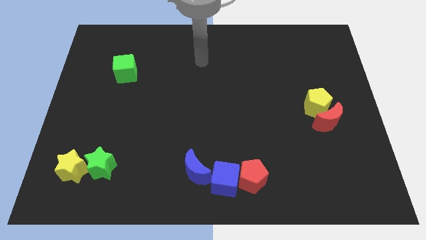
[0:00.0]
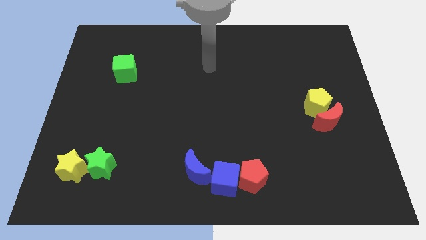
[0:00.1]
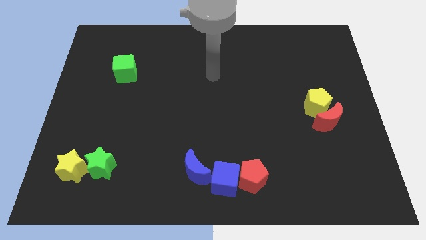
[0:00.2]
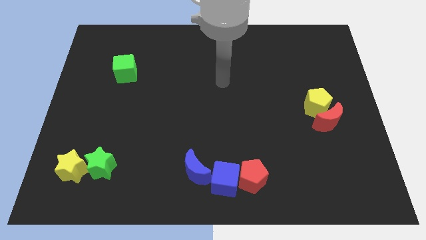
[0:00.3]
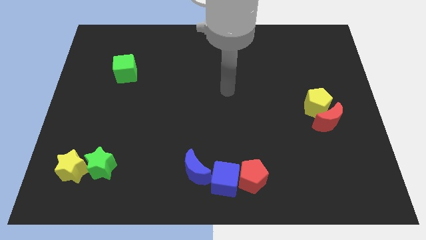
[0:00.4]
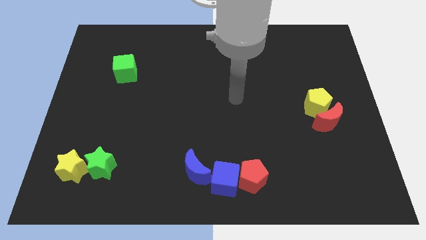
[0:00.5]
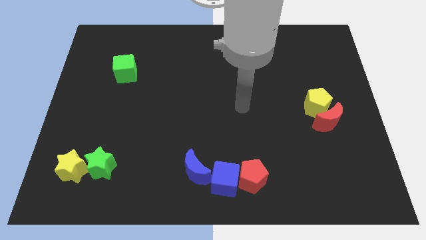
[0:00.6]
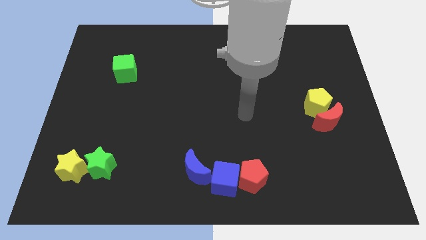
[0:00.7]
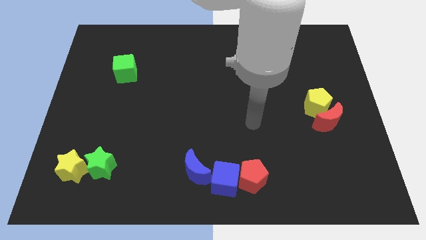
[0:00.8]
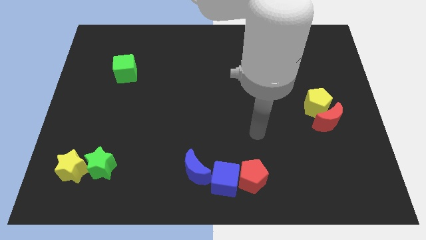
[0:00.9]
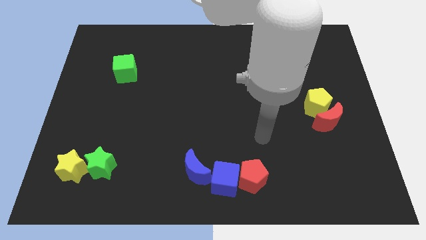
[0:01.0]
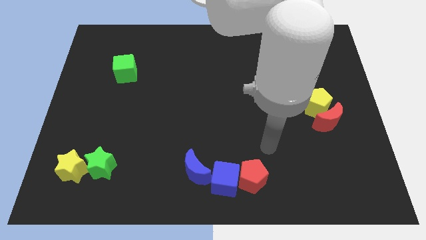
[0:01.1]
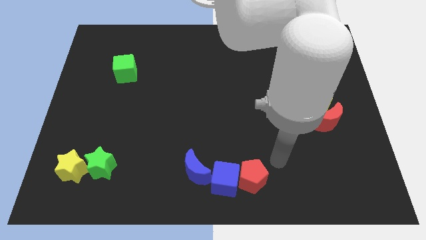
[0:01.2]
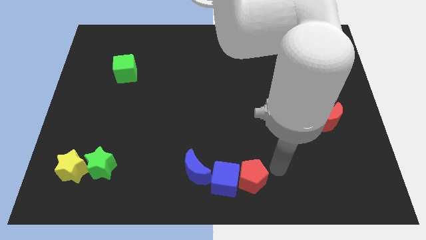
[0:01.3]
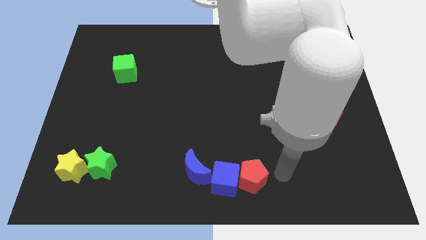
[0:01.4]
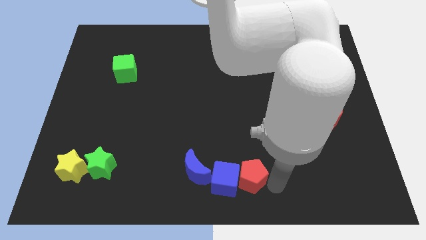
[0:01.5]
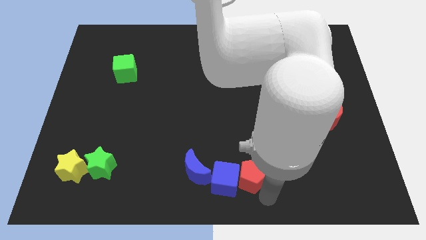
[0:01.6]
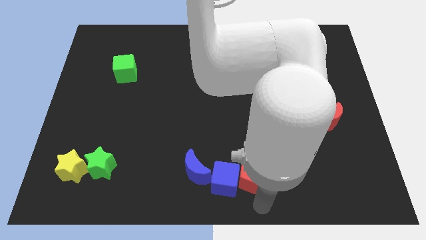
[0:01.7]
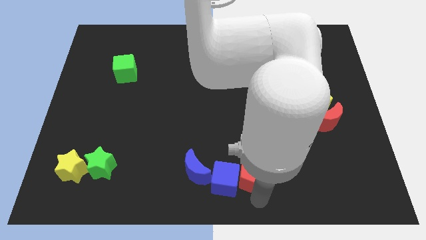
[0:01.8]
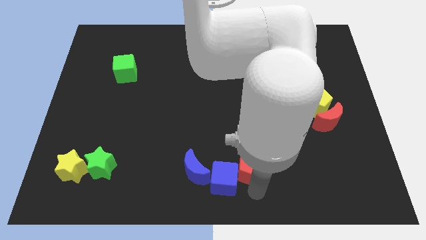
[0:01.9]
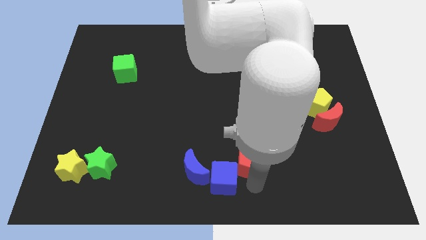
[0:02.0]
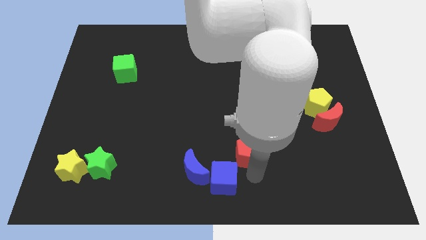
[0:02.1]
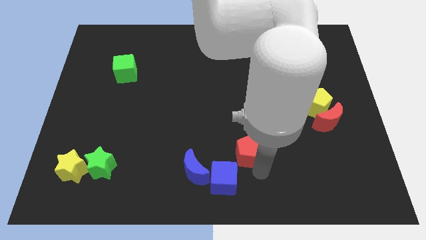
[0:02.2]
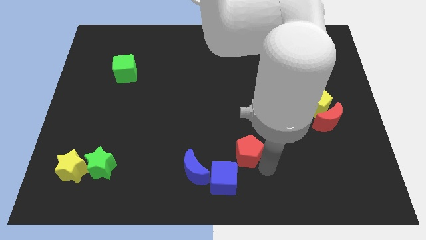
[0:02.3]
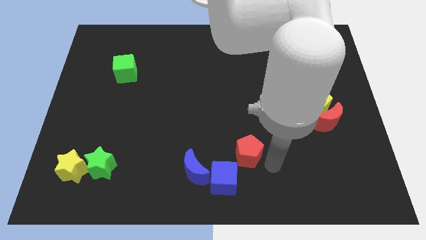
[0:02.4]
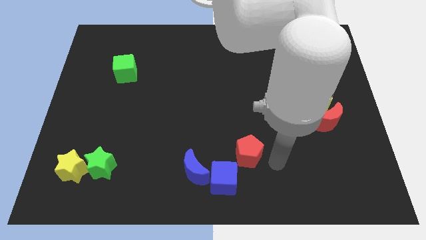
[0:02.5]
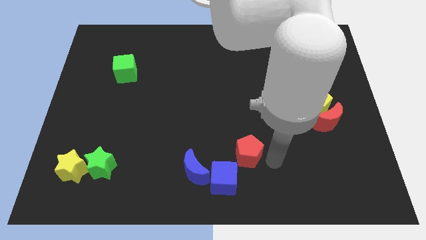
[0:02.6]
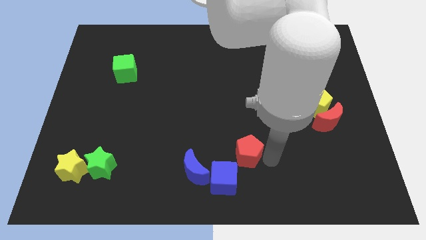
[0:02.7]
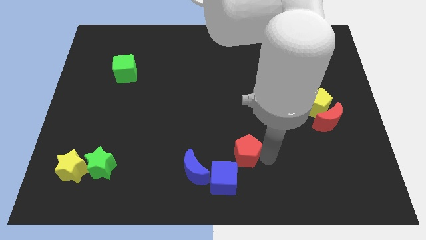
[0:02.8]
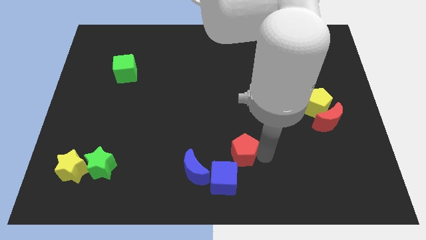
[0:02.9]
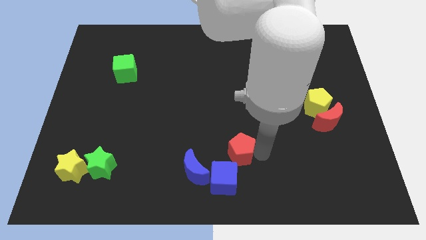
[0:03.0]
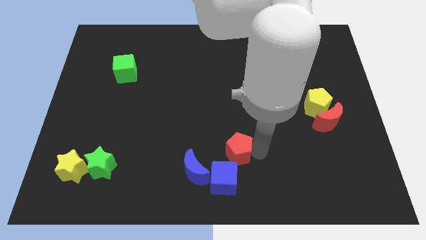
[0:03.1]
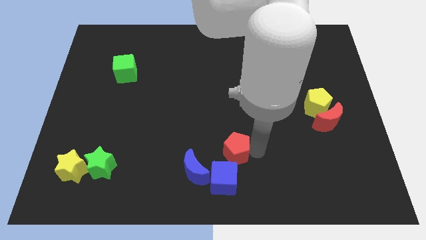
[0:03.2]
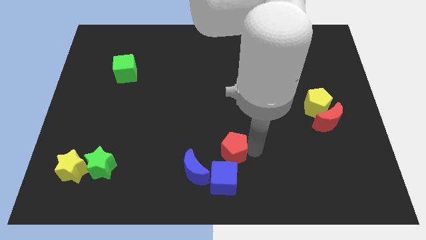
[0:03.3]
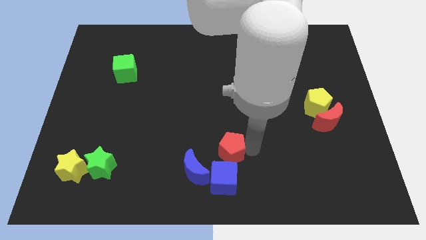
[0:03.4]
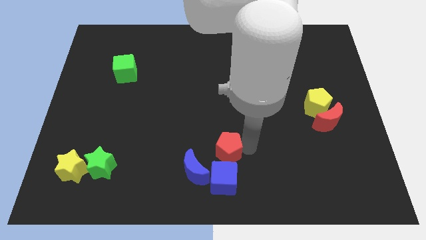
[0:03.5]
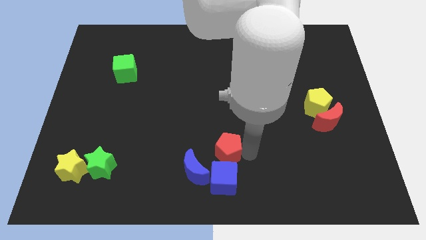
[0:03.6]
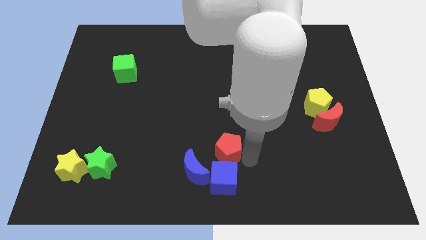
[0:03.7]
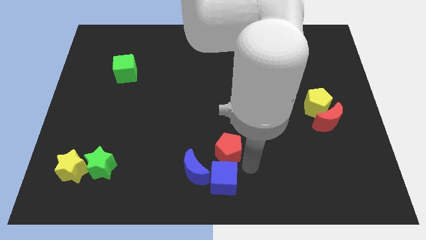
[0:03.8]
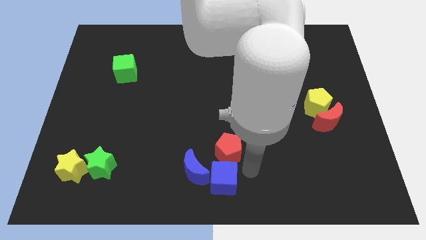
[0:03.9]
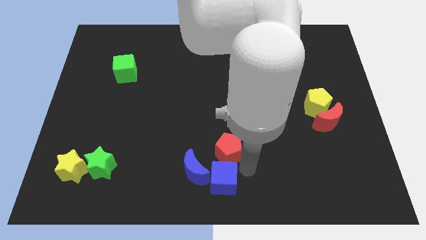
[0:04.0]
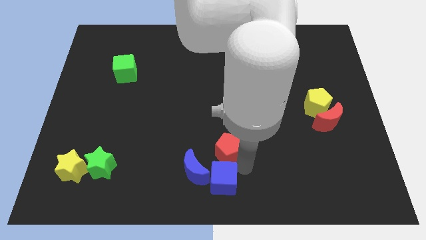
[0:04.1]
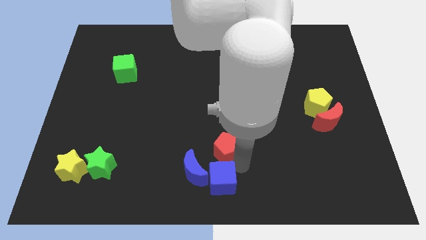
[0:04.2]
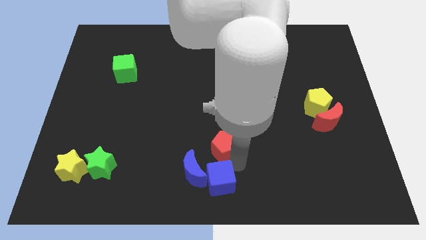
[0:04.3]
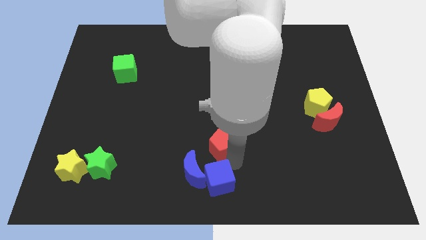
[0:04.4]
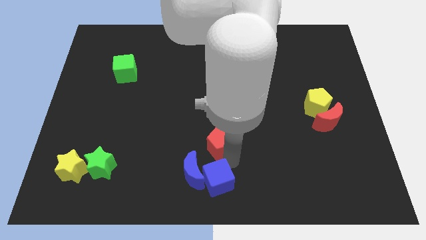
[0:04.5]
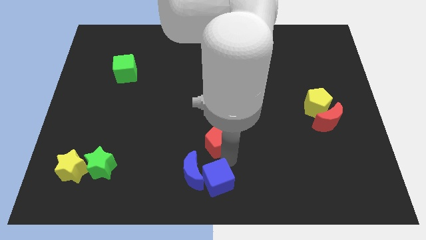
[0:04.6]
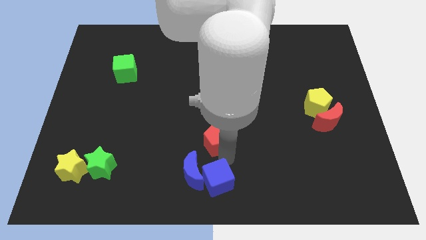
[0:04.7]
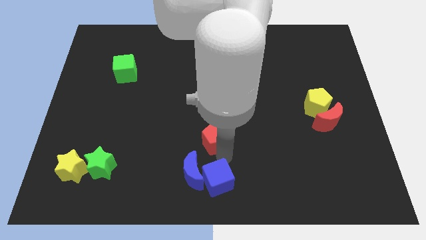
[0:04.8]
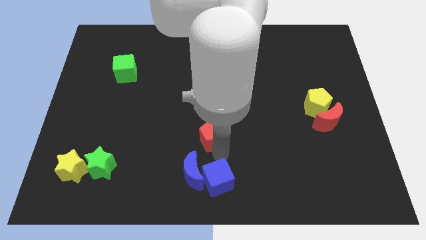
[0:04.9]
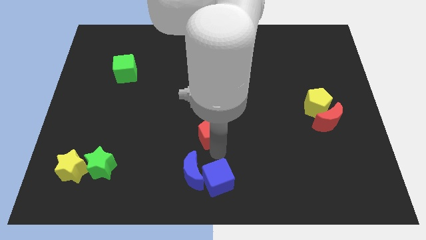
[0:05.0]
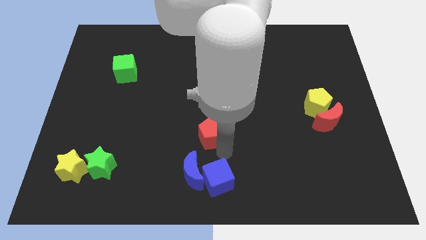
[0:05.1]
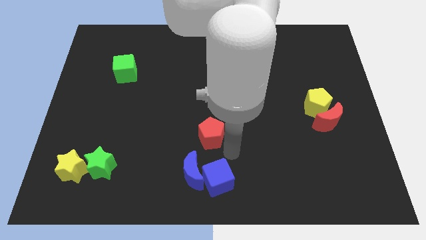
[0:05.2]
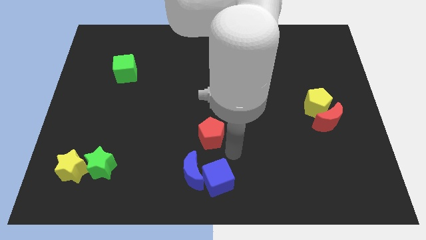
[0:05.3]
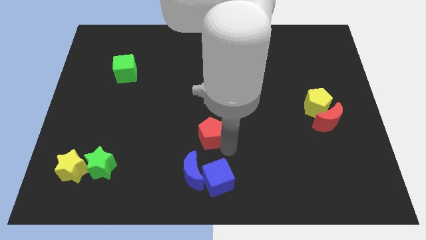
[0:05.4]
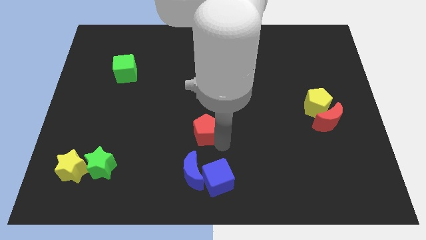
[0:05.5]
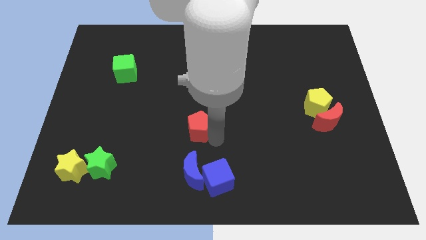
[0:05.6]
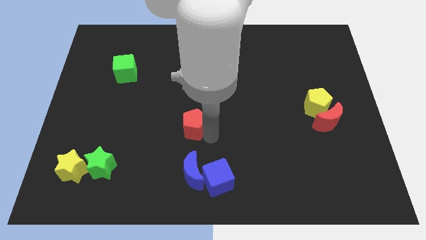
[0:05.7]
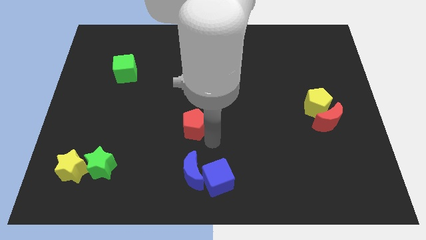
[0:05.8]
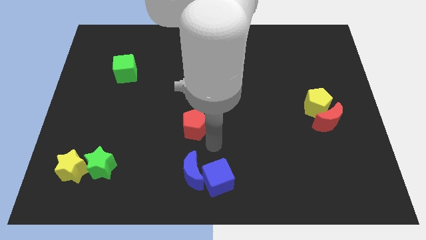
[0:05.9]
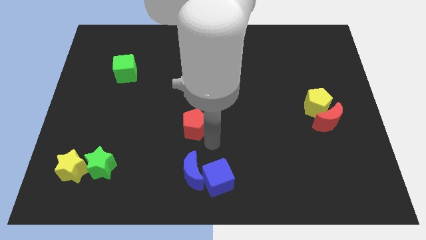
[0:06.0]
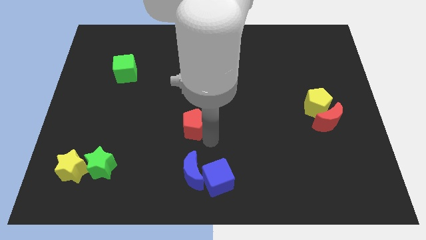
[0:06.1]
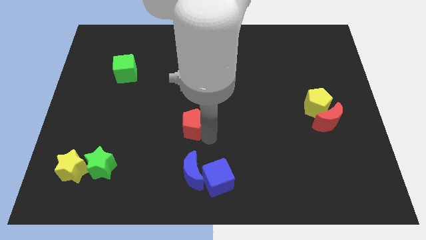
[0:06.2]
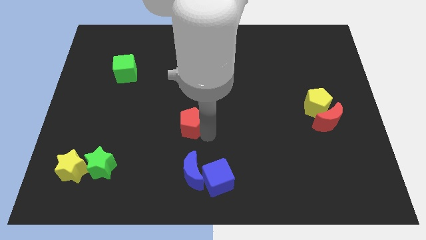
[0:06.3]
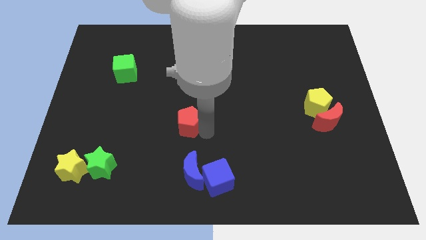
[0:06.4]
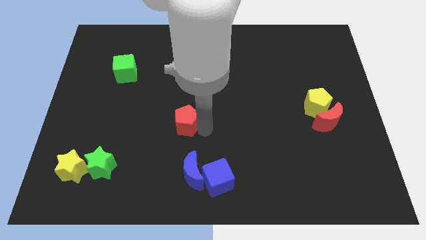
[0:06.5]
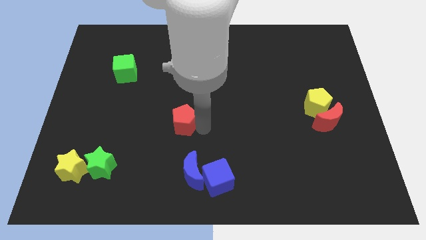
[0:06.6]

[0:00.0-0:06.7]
move the red pentagon diagonally upwards and left

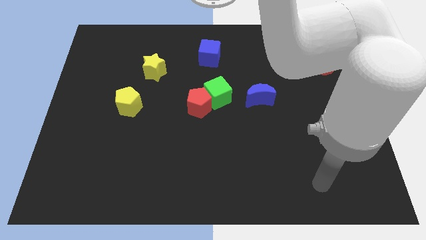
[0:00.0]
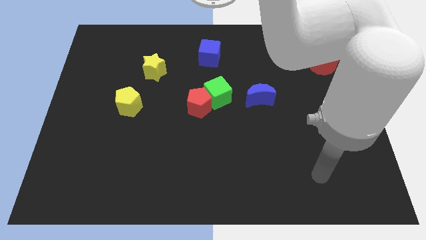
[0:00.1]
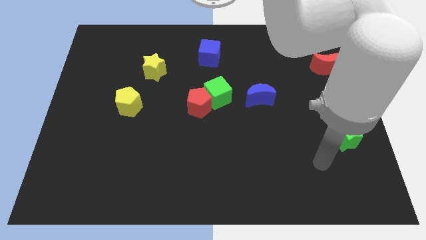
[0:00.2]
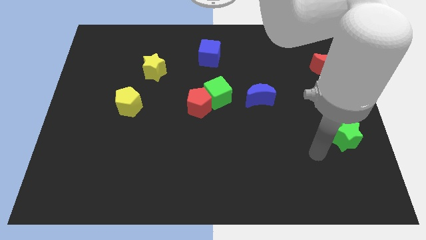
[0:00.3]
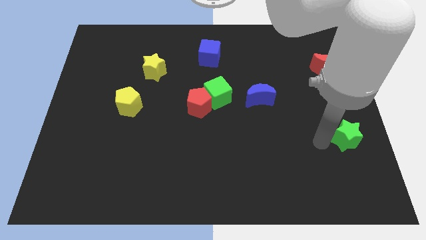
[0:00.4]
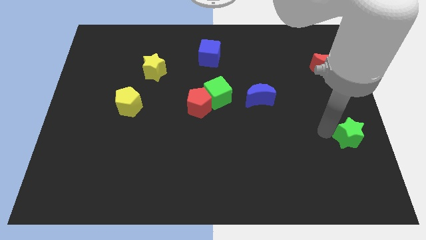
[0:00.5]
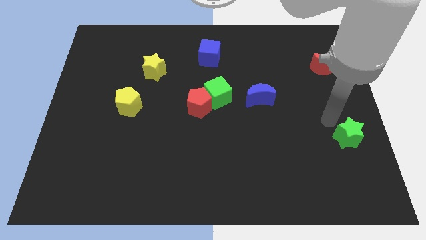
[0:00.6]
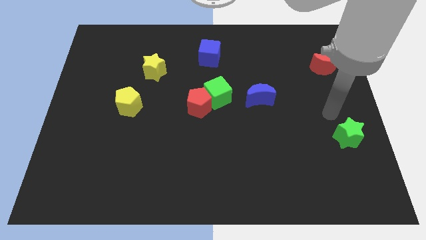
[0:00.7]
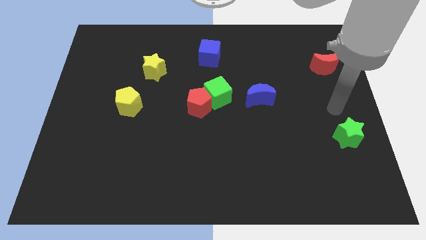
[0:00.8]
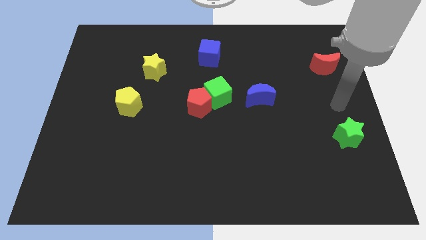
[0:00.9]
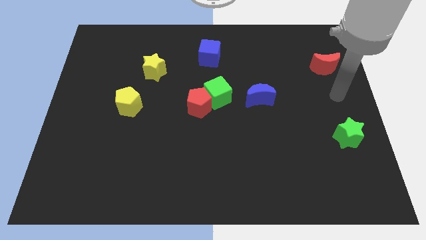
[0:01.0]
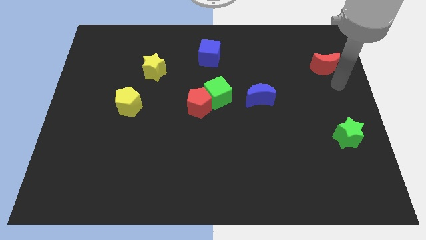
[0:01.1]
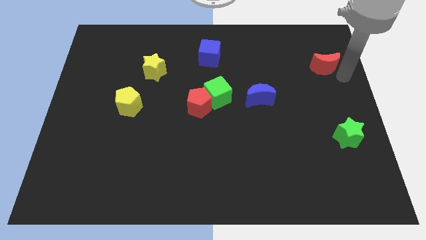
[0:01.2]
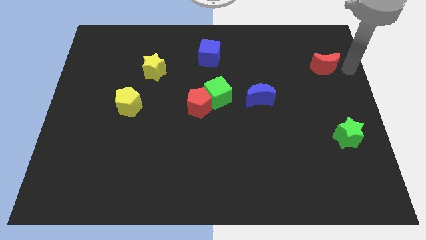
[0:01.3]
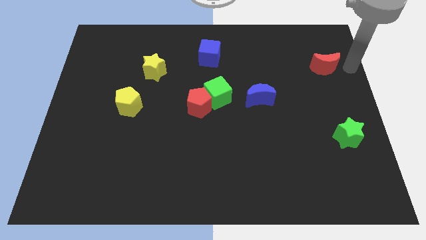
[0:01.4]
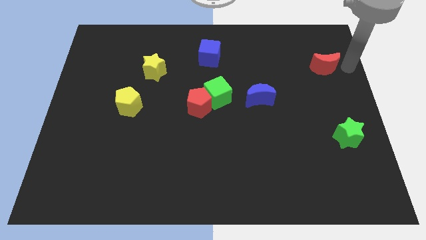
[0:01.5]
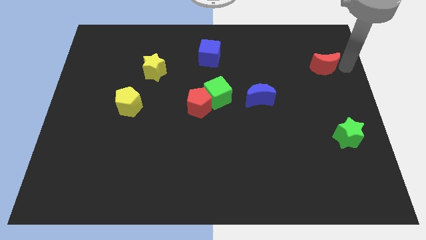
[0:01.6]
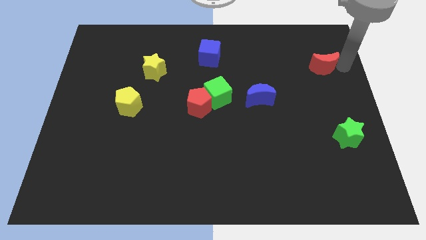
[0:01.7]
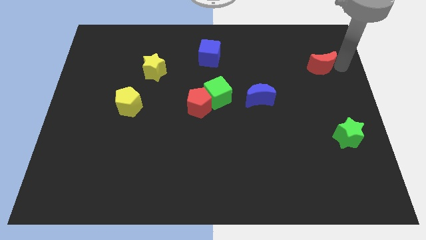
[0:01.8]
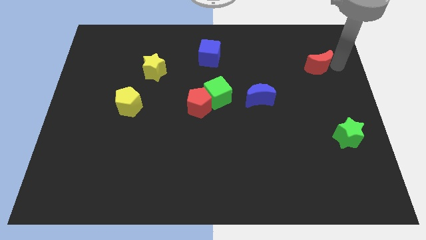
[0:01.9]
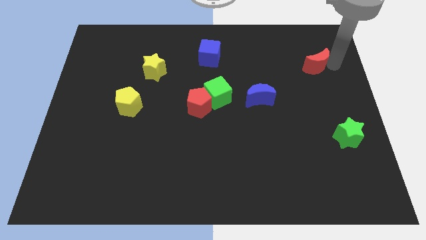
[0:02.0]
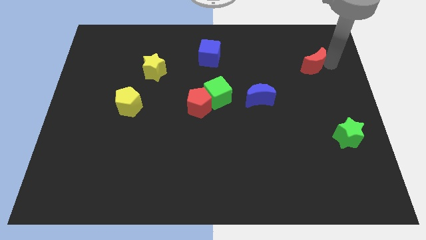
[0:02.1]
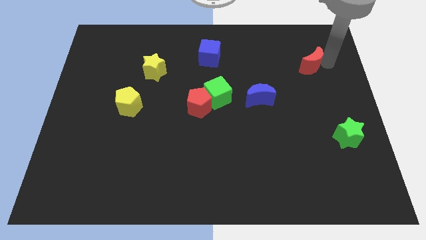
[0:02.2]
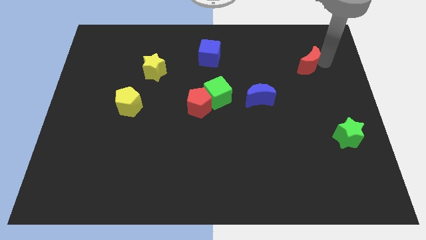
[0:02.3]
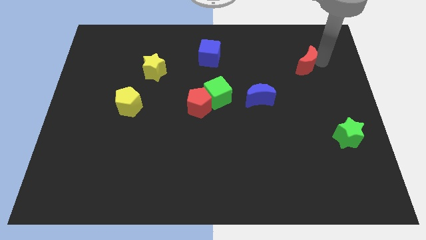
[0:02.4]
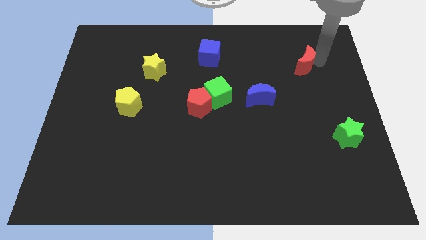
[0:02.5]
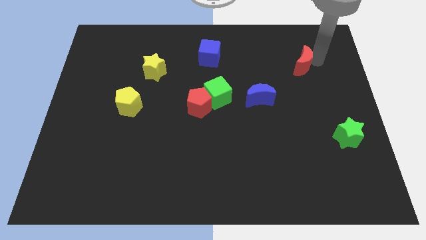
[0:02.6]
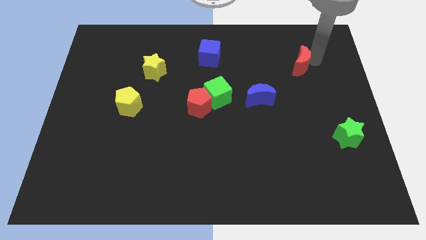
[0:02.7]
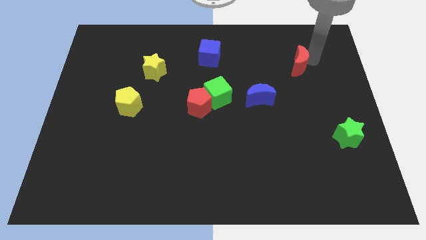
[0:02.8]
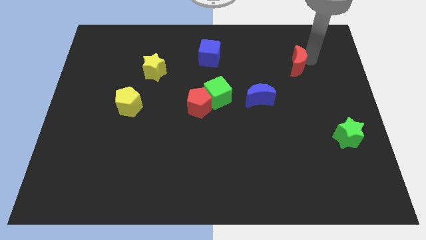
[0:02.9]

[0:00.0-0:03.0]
push the red moon slightly left
